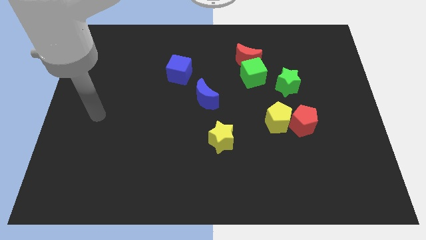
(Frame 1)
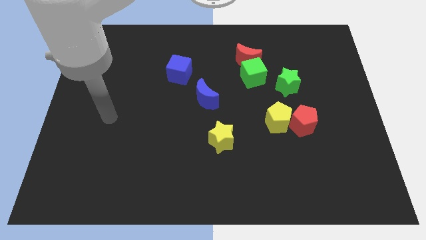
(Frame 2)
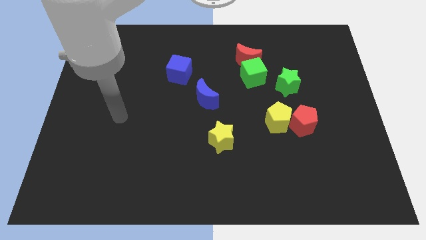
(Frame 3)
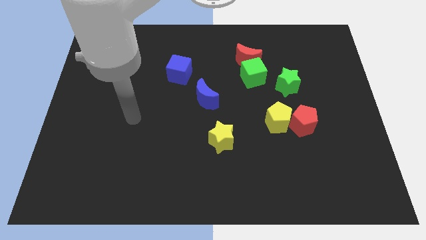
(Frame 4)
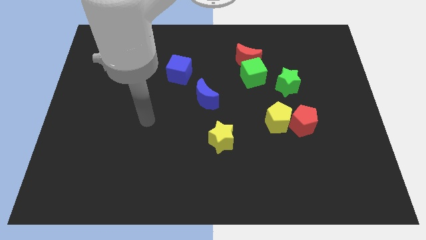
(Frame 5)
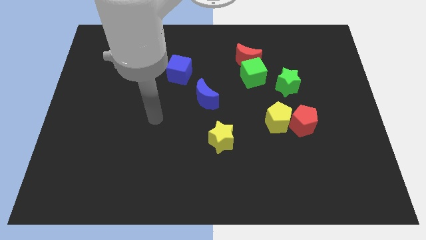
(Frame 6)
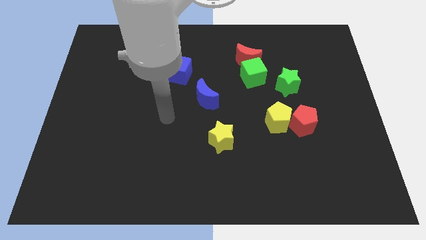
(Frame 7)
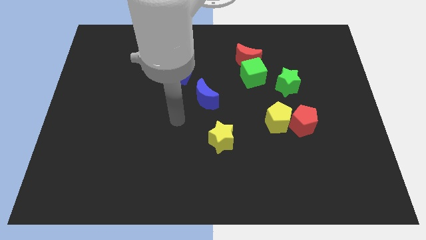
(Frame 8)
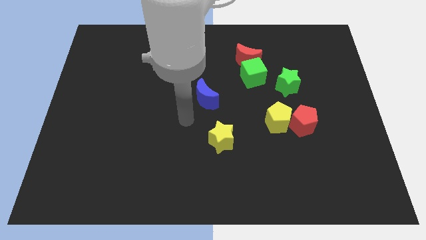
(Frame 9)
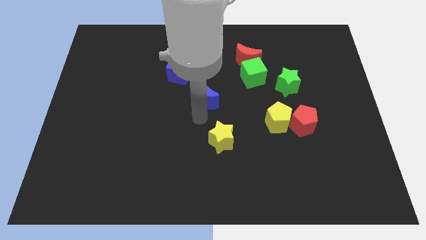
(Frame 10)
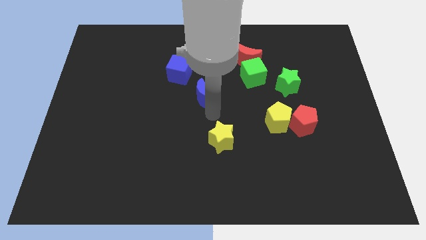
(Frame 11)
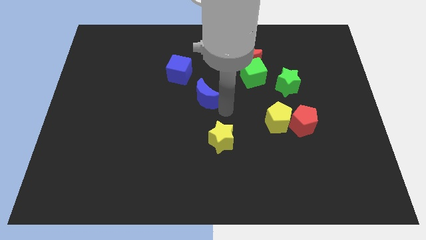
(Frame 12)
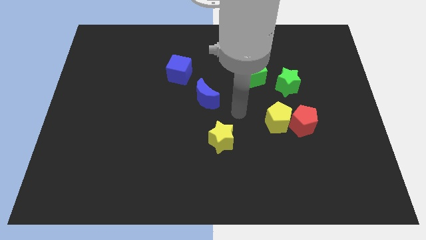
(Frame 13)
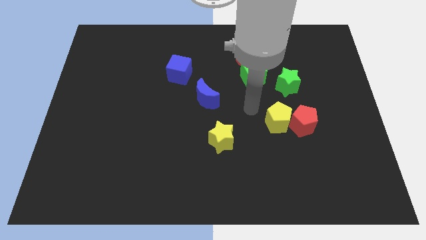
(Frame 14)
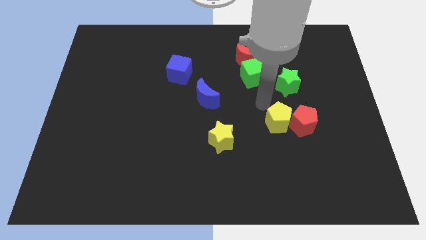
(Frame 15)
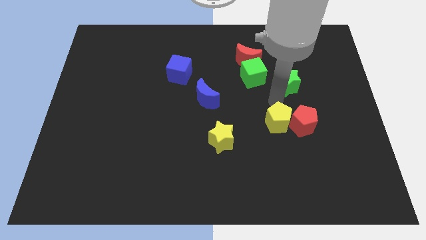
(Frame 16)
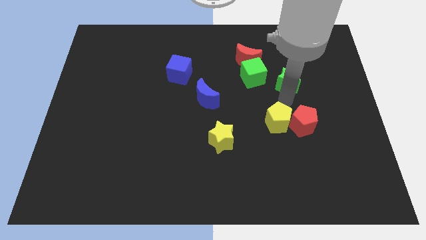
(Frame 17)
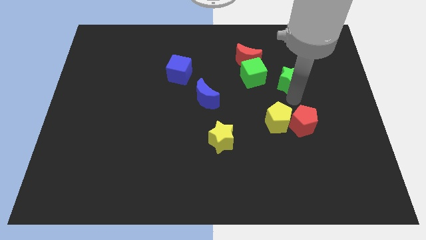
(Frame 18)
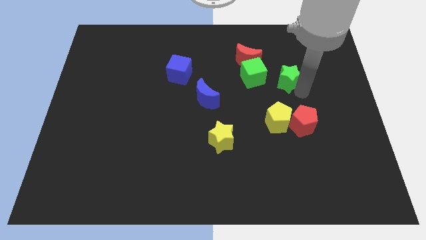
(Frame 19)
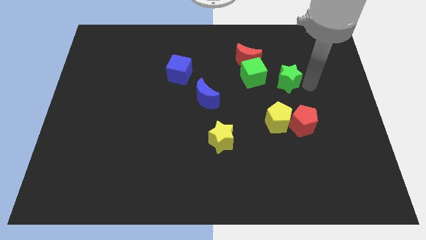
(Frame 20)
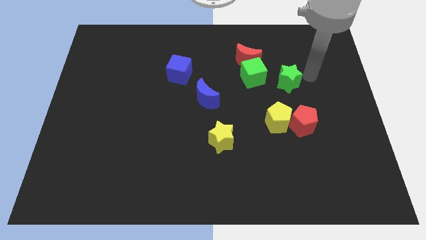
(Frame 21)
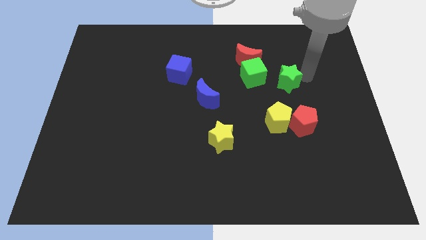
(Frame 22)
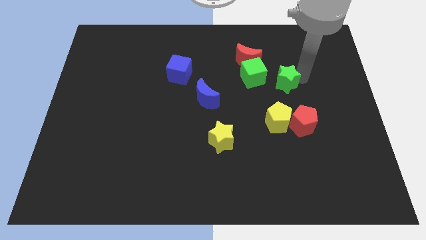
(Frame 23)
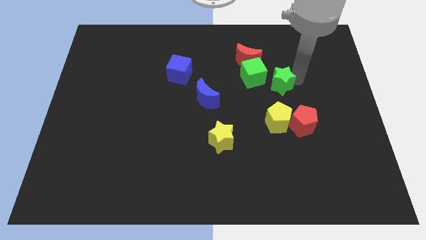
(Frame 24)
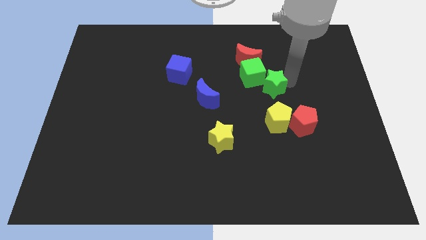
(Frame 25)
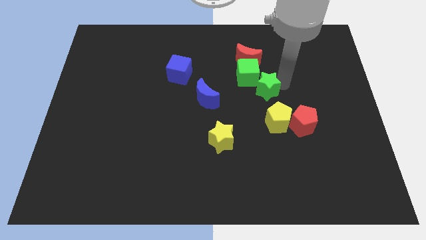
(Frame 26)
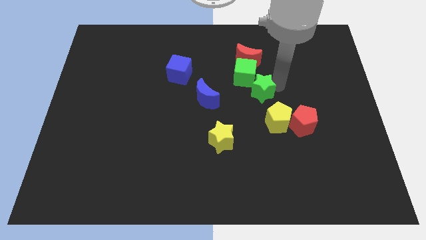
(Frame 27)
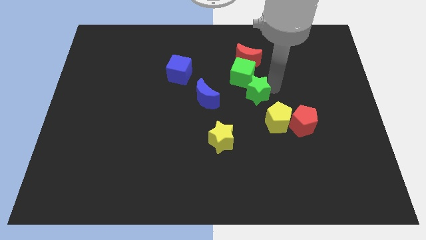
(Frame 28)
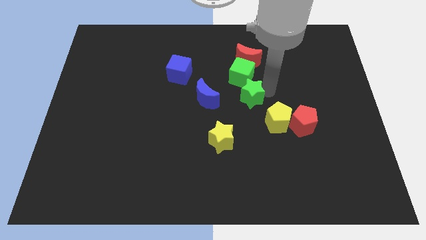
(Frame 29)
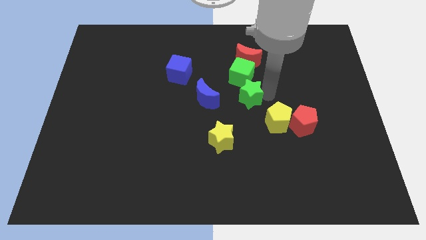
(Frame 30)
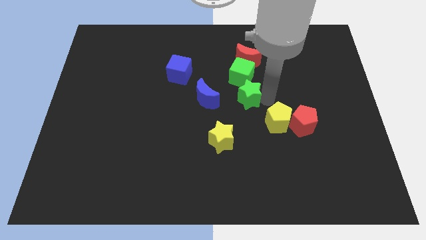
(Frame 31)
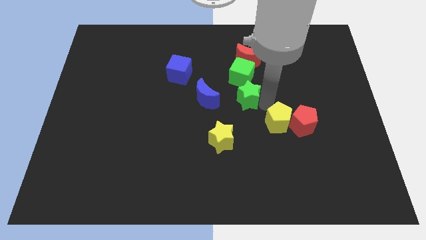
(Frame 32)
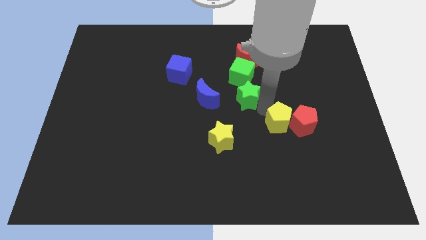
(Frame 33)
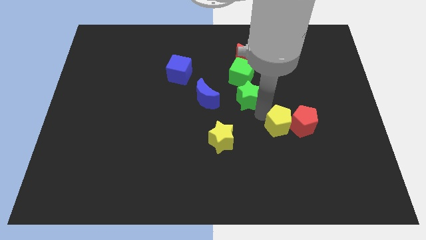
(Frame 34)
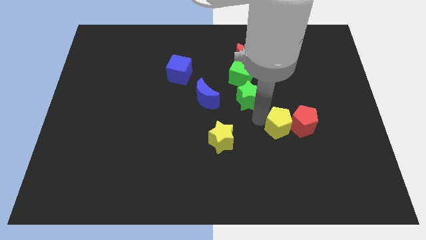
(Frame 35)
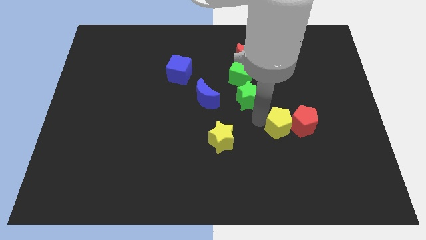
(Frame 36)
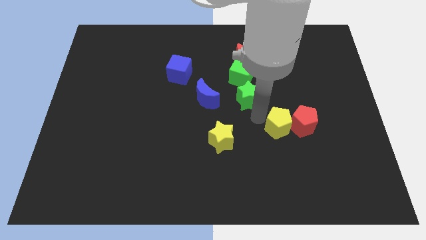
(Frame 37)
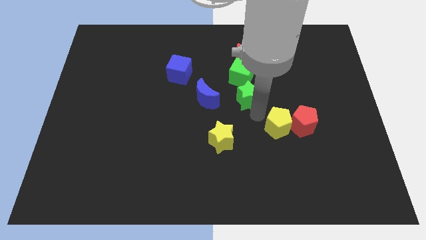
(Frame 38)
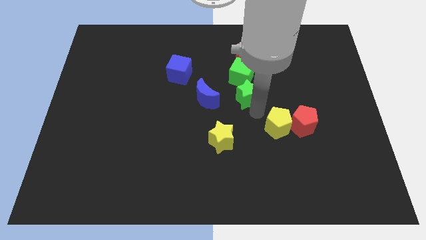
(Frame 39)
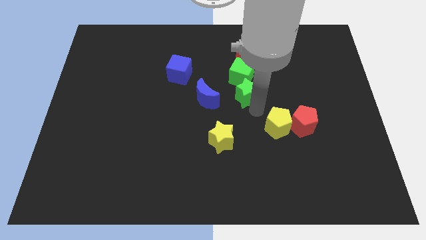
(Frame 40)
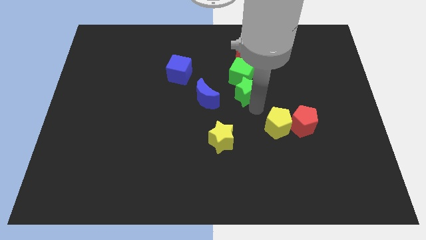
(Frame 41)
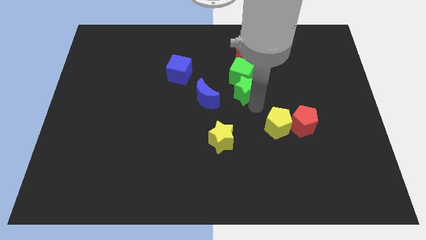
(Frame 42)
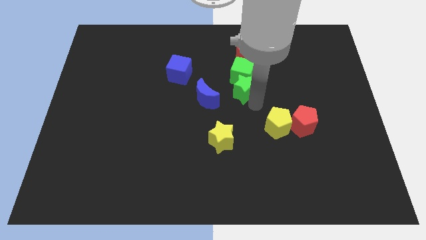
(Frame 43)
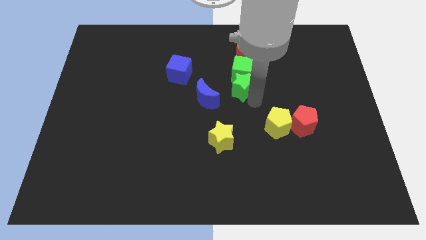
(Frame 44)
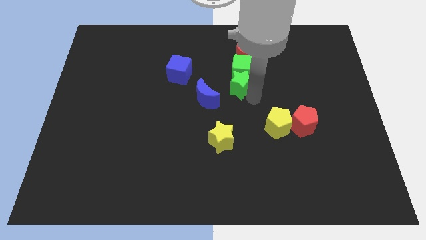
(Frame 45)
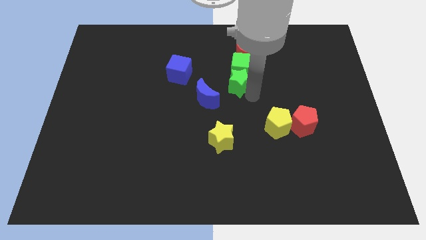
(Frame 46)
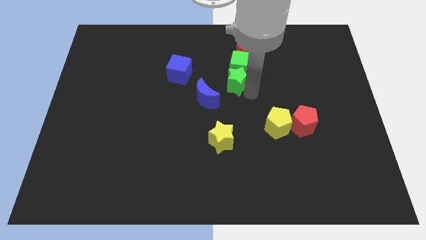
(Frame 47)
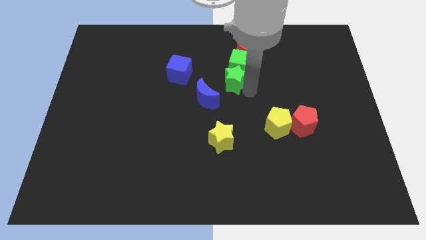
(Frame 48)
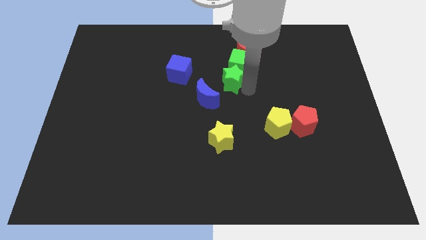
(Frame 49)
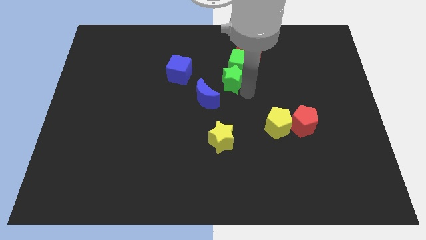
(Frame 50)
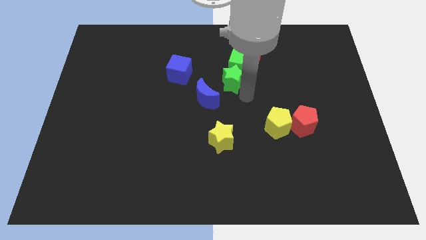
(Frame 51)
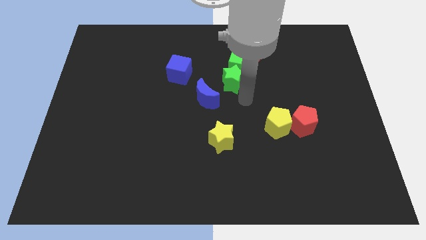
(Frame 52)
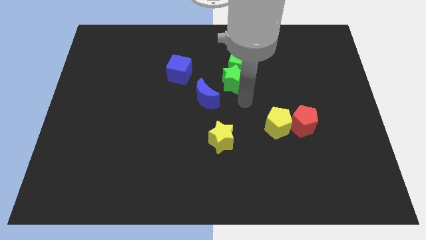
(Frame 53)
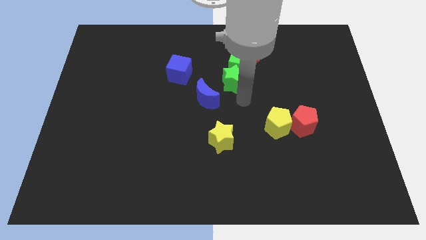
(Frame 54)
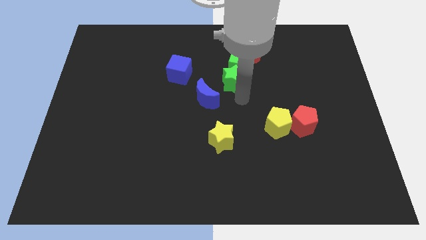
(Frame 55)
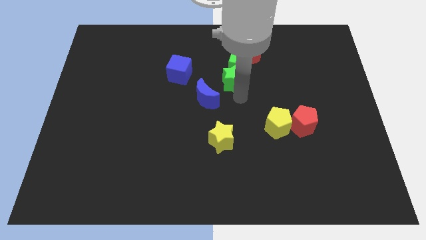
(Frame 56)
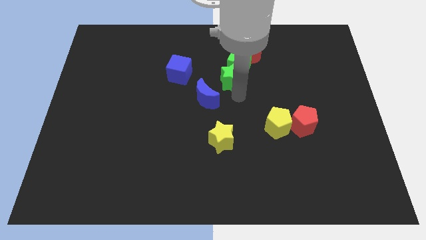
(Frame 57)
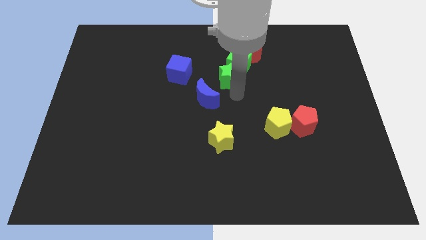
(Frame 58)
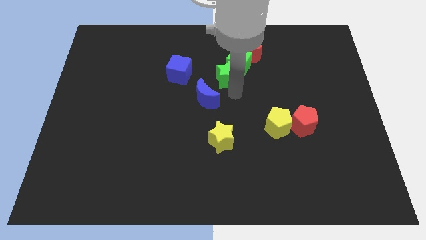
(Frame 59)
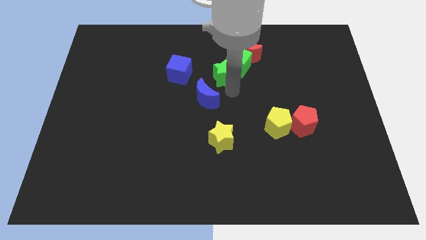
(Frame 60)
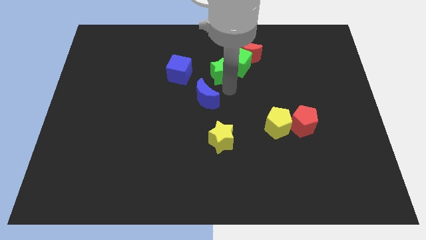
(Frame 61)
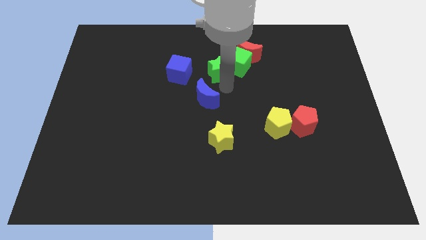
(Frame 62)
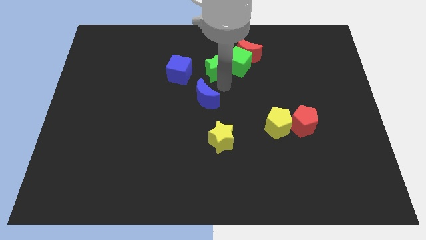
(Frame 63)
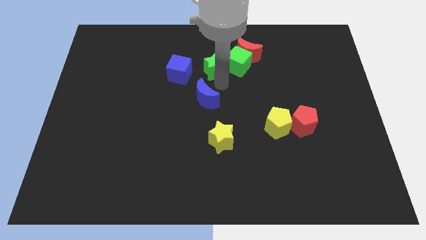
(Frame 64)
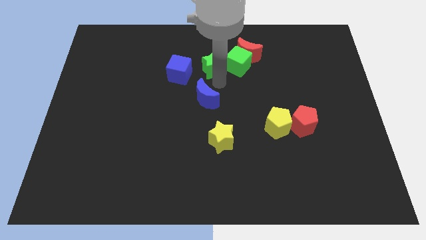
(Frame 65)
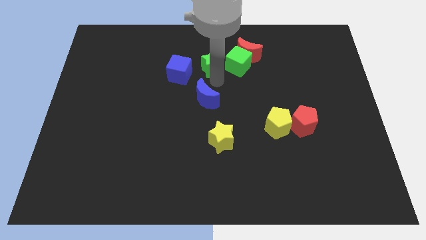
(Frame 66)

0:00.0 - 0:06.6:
push the green star just left of the red moon

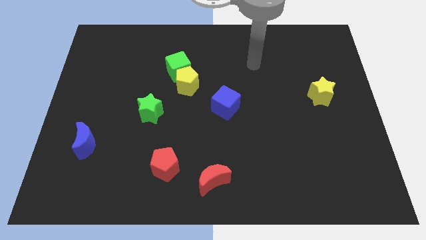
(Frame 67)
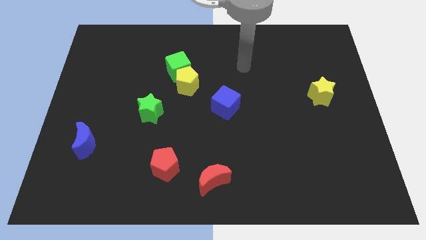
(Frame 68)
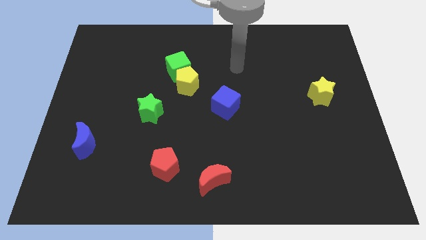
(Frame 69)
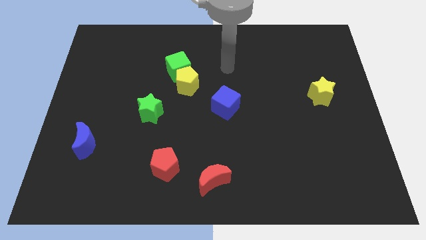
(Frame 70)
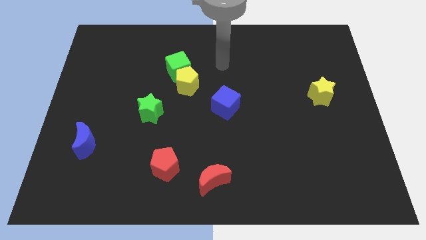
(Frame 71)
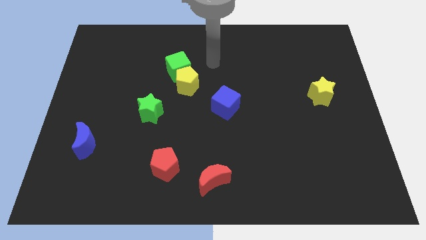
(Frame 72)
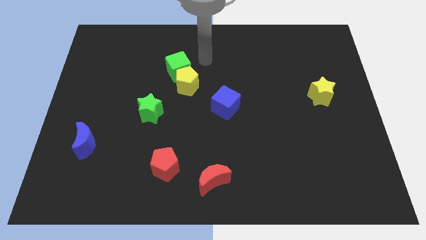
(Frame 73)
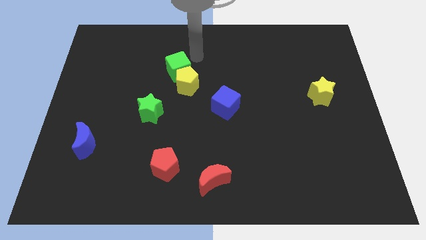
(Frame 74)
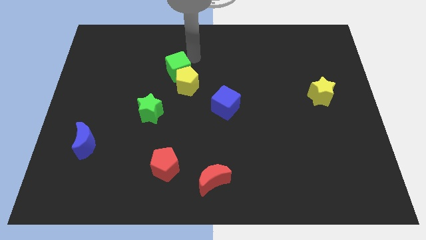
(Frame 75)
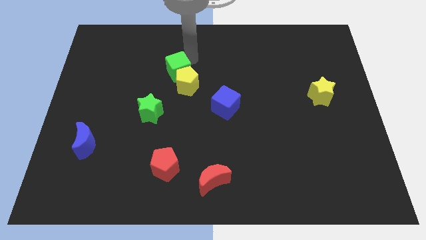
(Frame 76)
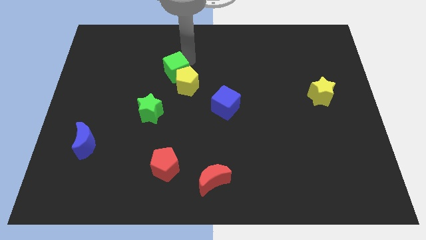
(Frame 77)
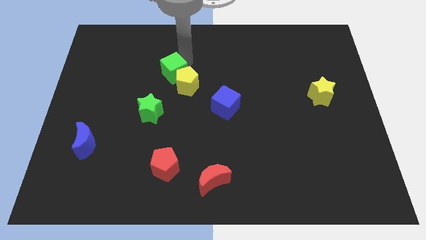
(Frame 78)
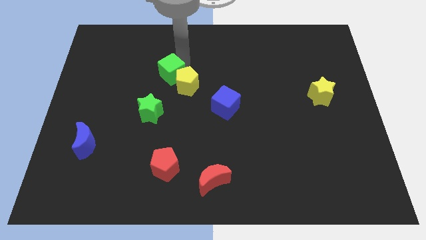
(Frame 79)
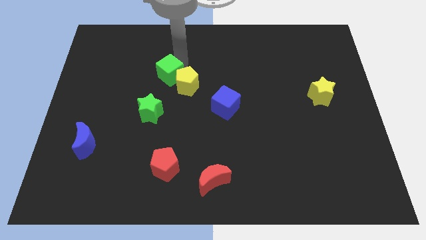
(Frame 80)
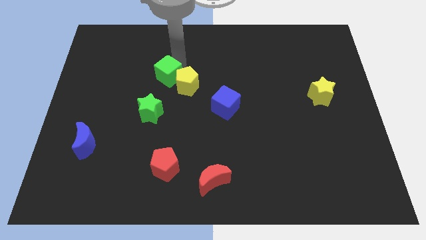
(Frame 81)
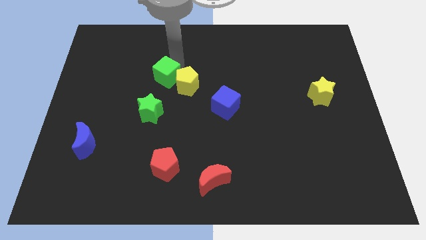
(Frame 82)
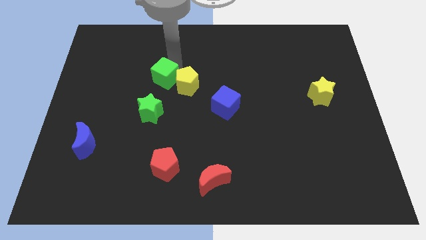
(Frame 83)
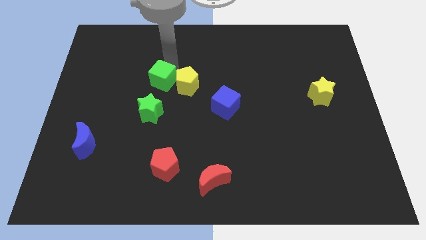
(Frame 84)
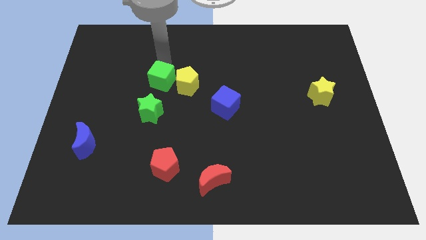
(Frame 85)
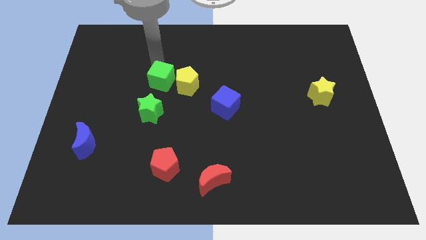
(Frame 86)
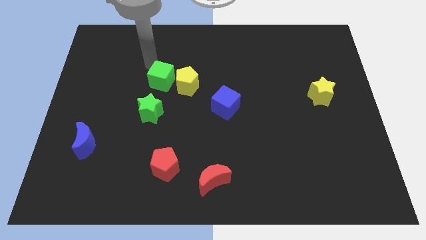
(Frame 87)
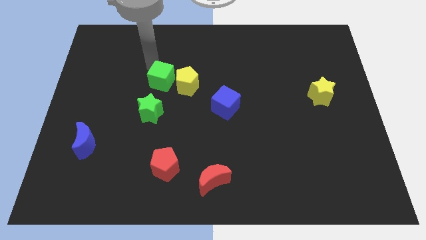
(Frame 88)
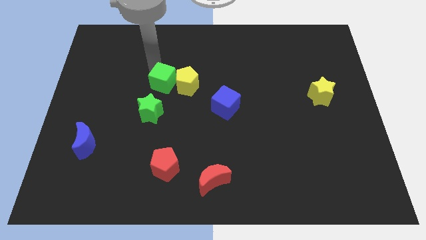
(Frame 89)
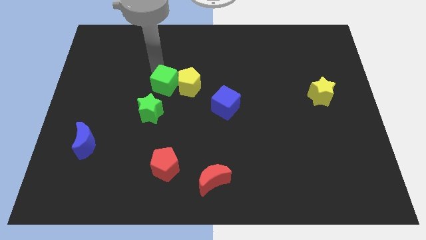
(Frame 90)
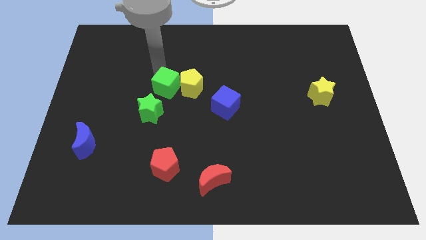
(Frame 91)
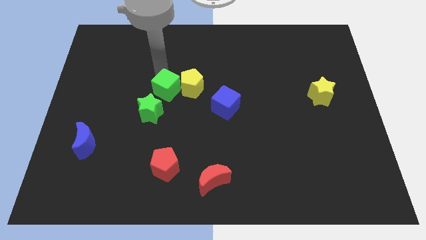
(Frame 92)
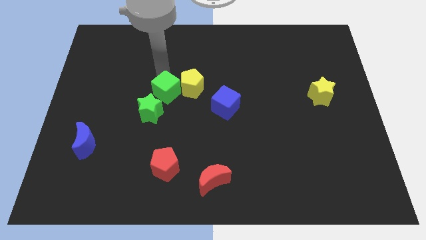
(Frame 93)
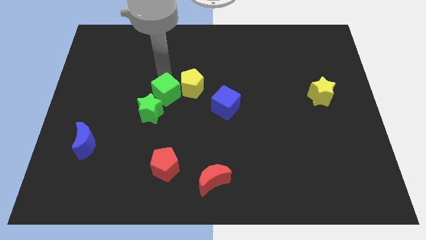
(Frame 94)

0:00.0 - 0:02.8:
put the green cube just left of the blue cube
